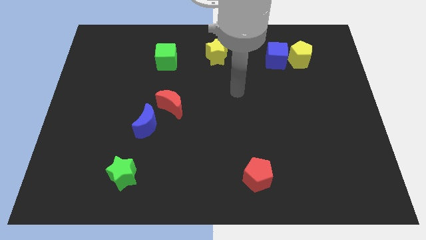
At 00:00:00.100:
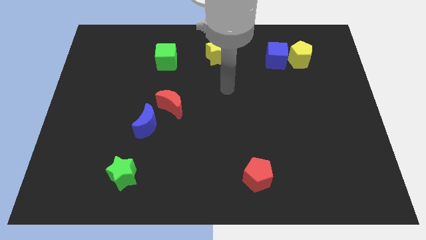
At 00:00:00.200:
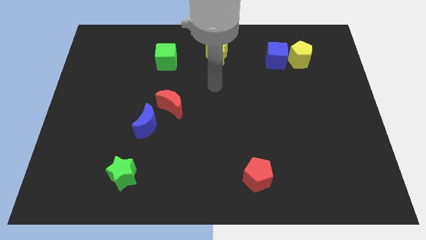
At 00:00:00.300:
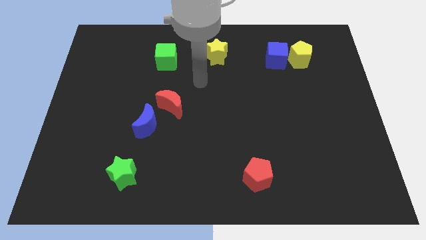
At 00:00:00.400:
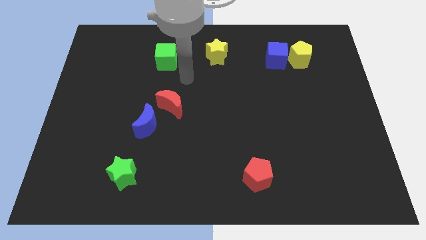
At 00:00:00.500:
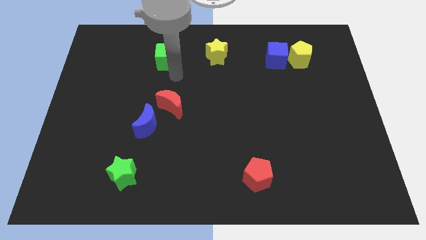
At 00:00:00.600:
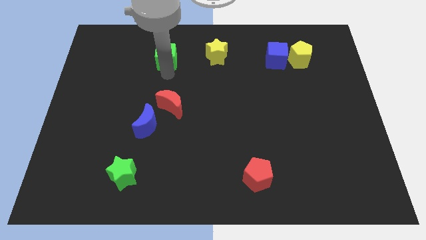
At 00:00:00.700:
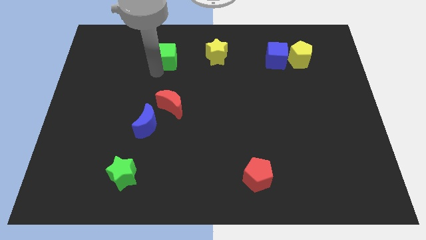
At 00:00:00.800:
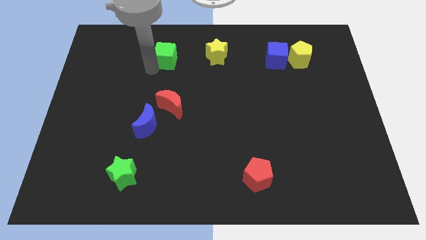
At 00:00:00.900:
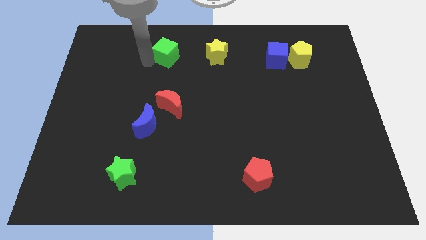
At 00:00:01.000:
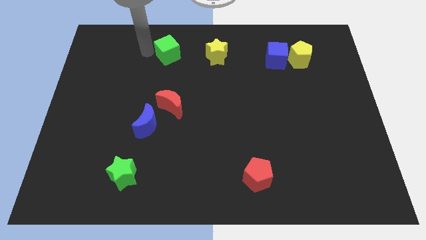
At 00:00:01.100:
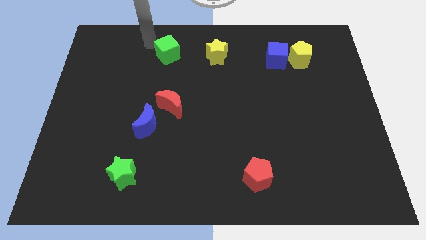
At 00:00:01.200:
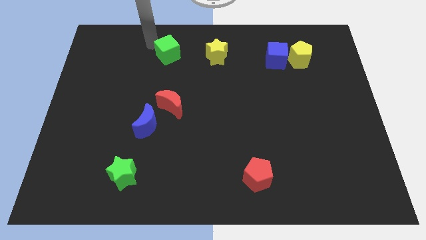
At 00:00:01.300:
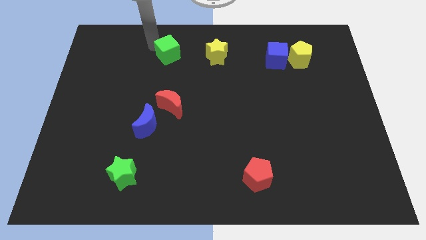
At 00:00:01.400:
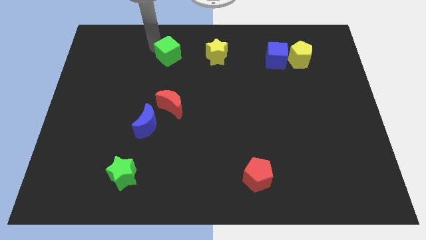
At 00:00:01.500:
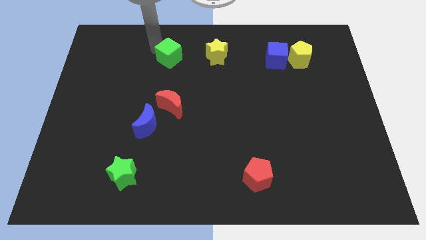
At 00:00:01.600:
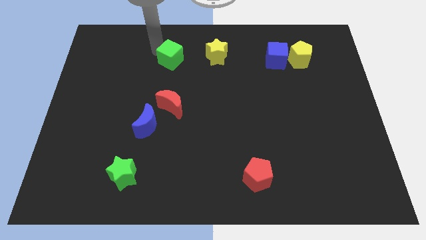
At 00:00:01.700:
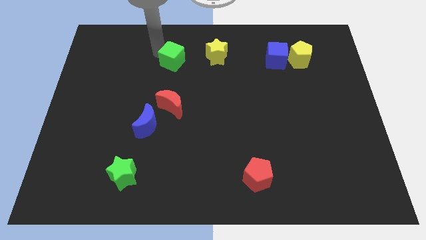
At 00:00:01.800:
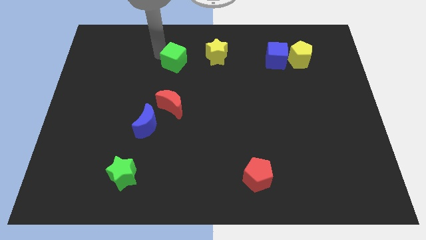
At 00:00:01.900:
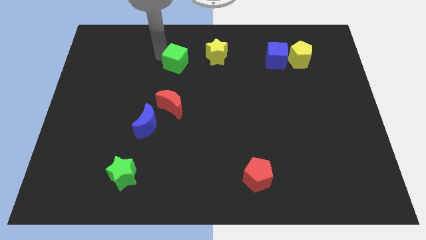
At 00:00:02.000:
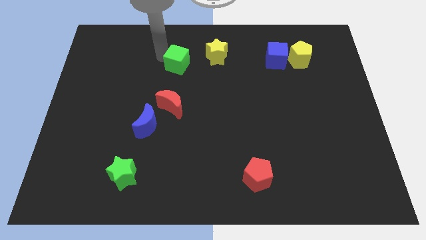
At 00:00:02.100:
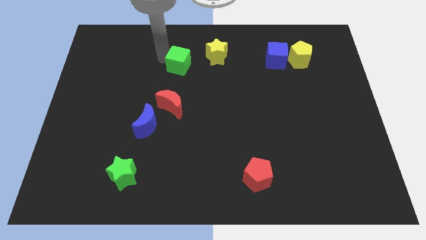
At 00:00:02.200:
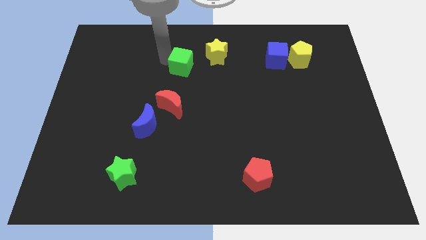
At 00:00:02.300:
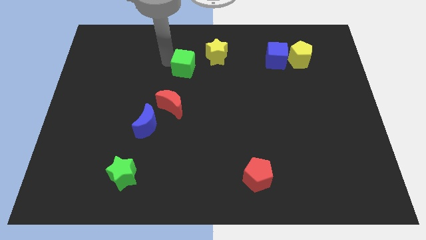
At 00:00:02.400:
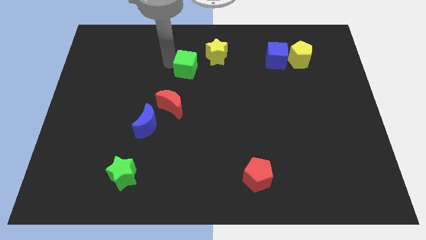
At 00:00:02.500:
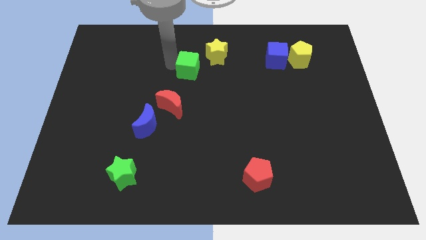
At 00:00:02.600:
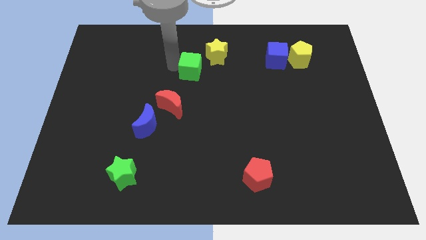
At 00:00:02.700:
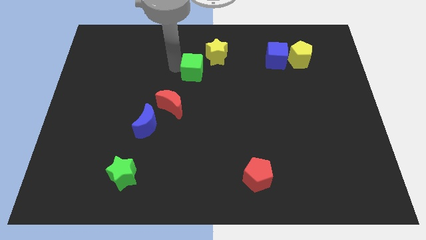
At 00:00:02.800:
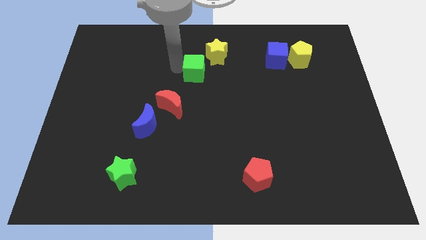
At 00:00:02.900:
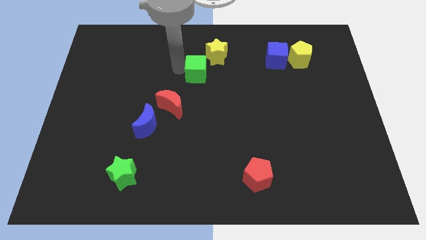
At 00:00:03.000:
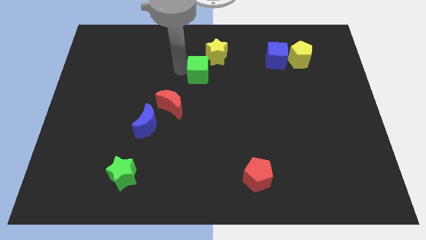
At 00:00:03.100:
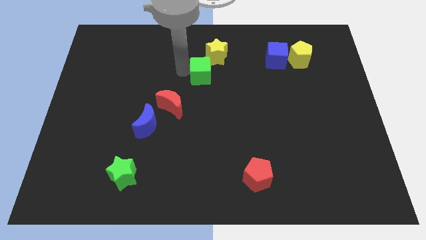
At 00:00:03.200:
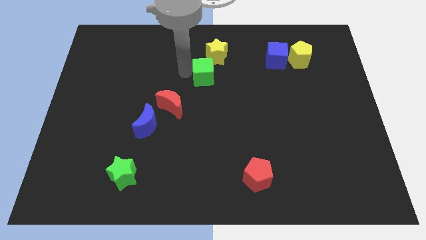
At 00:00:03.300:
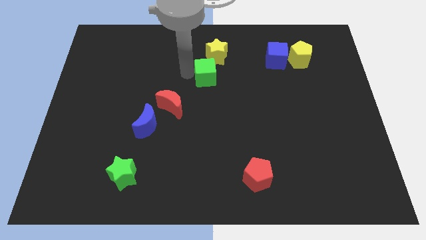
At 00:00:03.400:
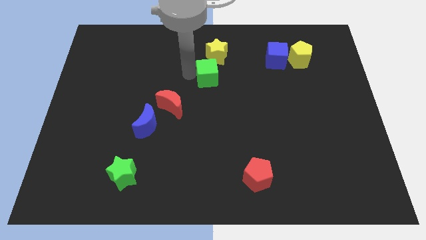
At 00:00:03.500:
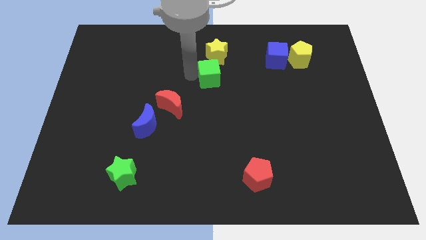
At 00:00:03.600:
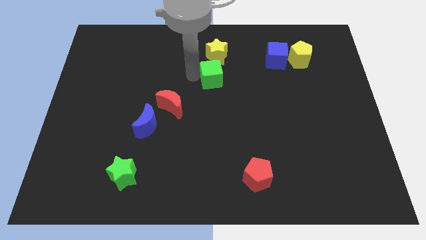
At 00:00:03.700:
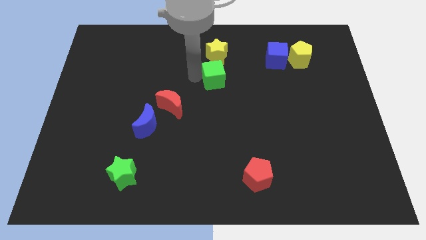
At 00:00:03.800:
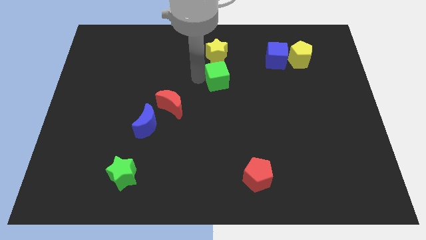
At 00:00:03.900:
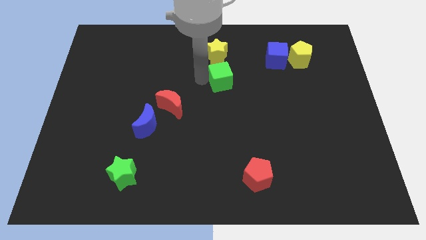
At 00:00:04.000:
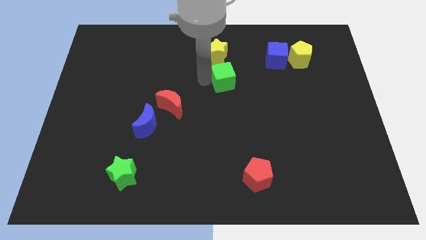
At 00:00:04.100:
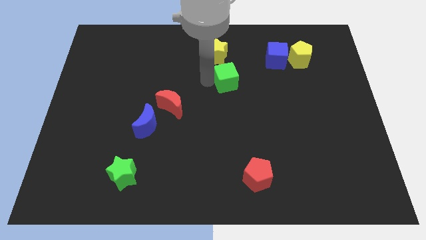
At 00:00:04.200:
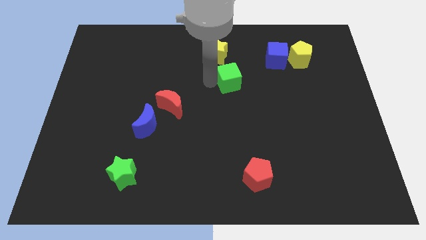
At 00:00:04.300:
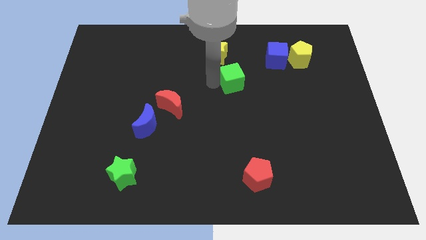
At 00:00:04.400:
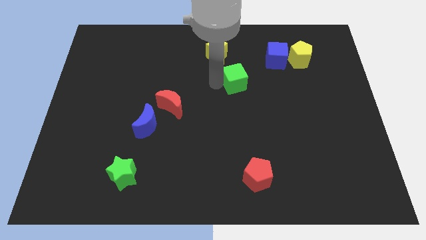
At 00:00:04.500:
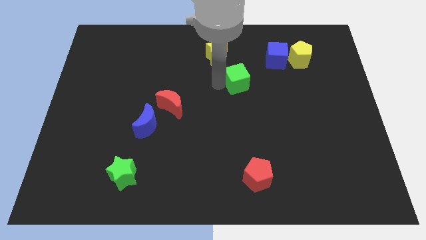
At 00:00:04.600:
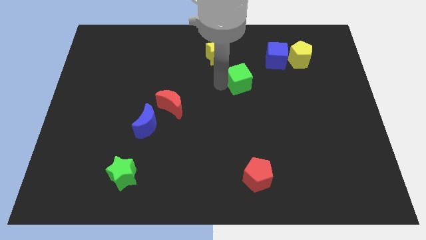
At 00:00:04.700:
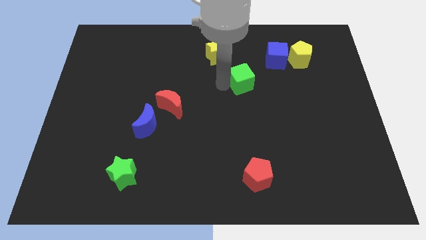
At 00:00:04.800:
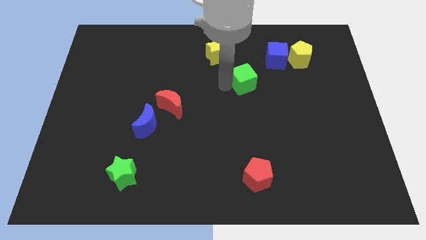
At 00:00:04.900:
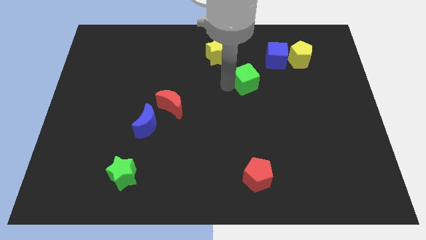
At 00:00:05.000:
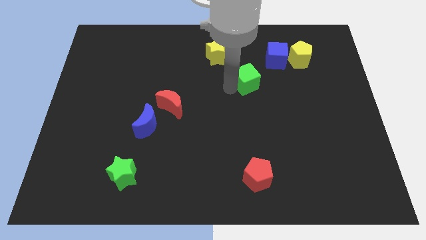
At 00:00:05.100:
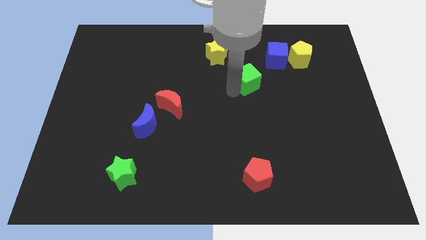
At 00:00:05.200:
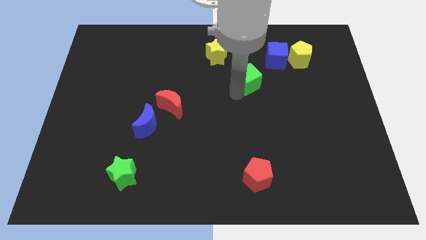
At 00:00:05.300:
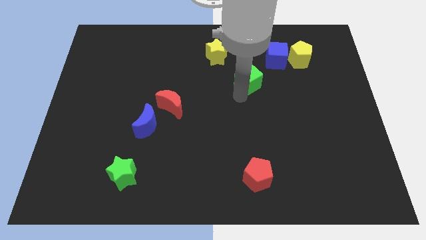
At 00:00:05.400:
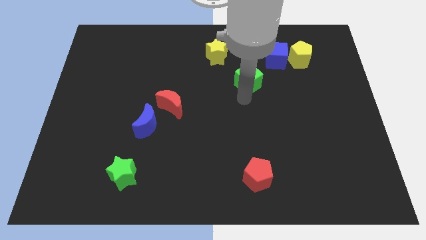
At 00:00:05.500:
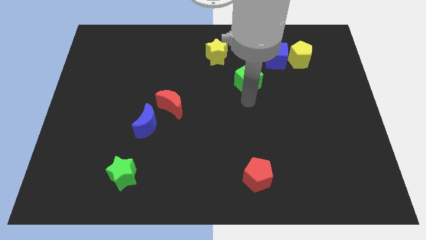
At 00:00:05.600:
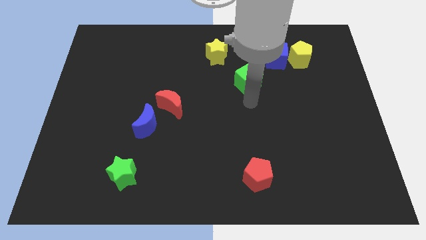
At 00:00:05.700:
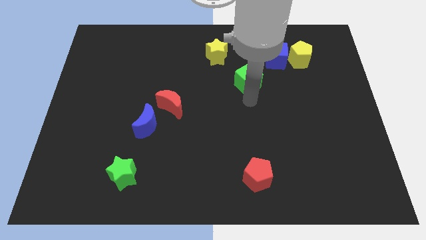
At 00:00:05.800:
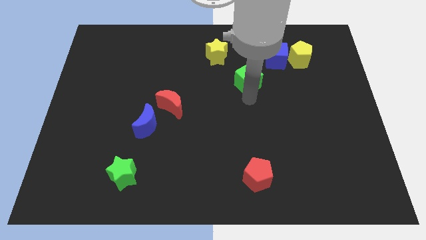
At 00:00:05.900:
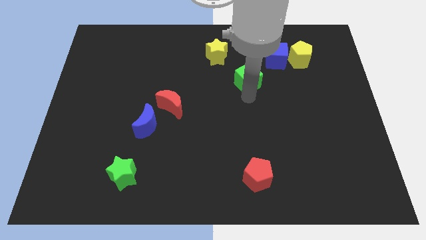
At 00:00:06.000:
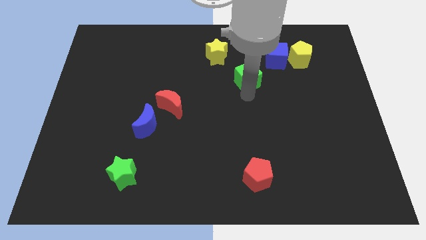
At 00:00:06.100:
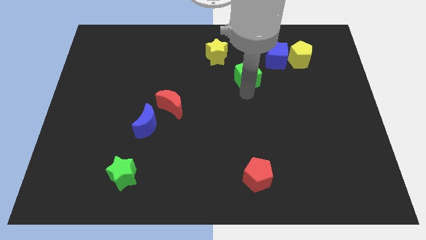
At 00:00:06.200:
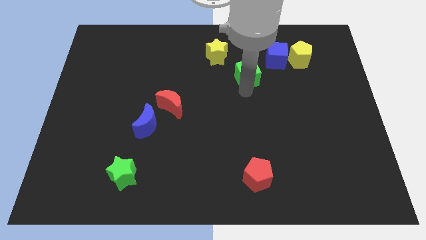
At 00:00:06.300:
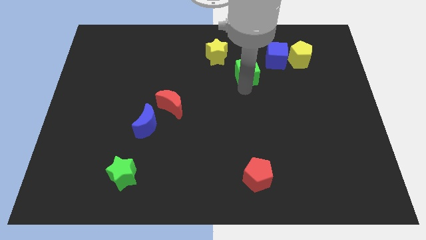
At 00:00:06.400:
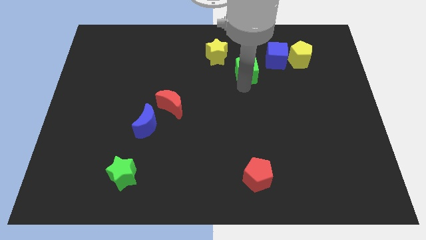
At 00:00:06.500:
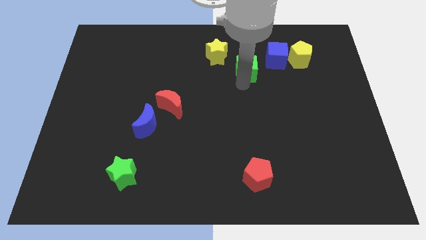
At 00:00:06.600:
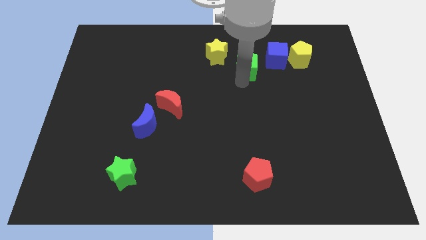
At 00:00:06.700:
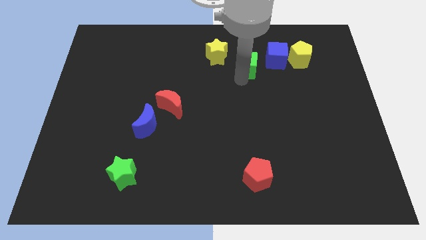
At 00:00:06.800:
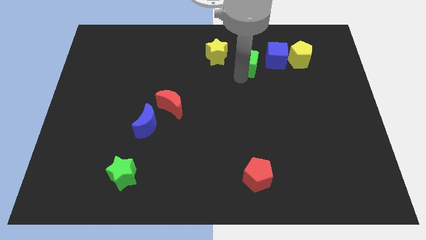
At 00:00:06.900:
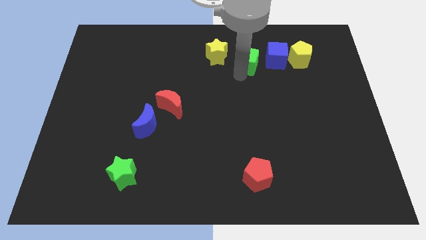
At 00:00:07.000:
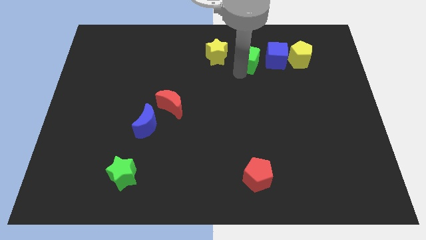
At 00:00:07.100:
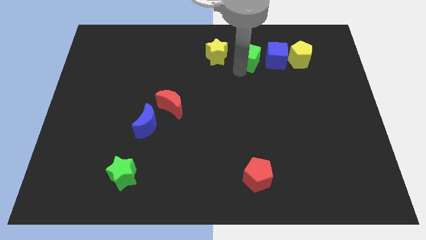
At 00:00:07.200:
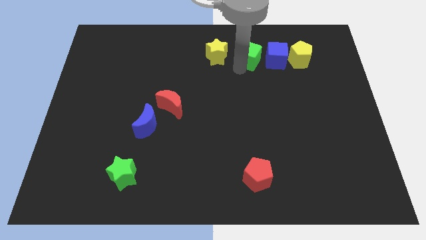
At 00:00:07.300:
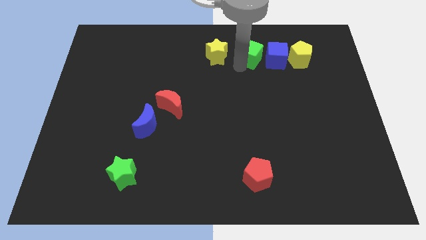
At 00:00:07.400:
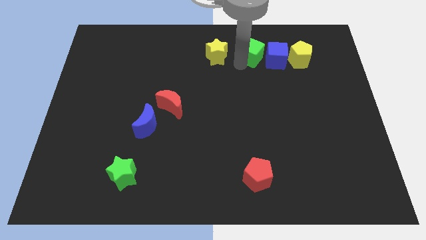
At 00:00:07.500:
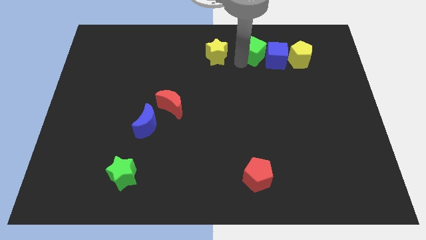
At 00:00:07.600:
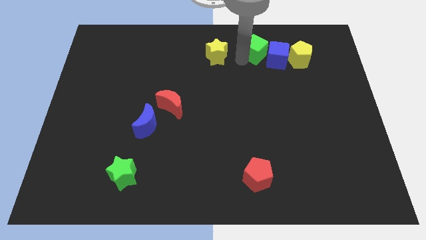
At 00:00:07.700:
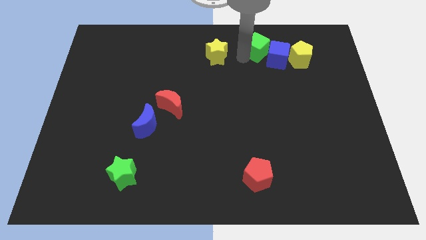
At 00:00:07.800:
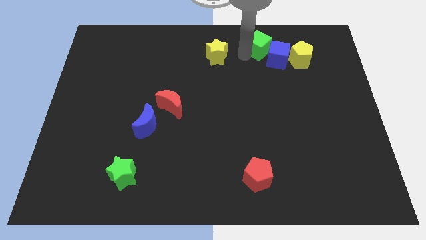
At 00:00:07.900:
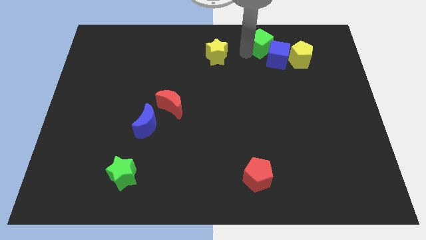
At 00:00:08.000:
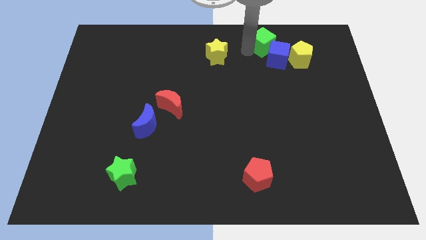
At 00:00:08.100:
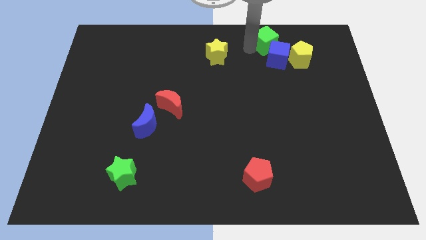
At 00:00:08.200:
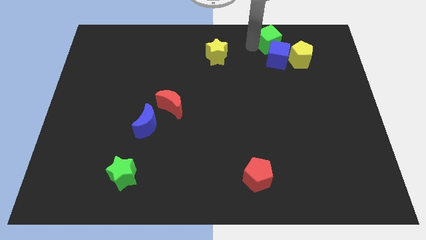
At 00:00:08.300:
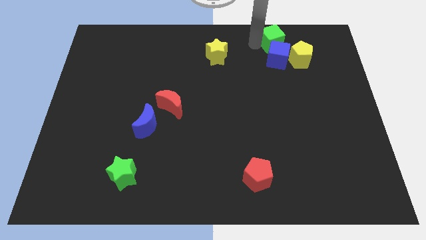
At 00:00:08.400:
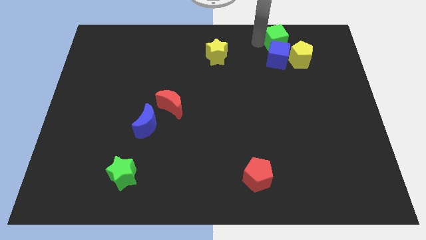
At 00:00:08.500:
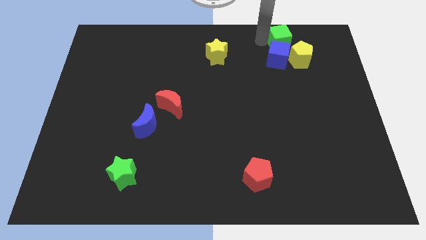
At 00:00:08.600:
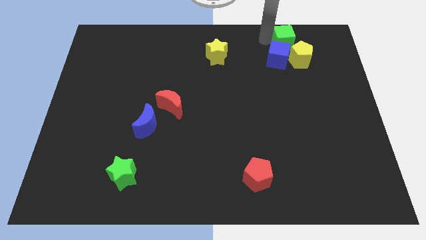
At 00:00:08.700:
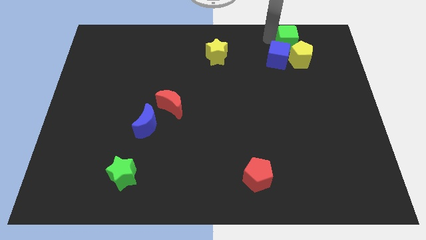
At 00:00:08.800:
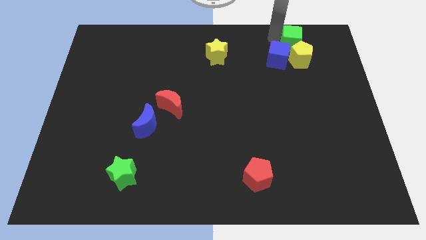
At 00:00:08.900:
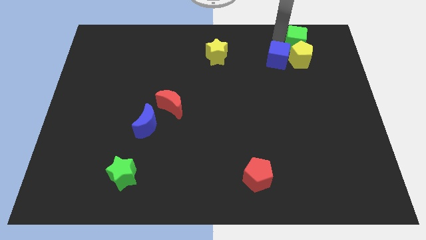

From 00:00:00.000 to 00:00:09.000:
put the green cube towards the yellow pentagon
